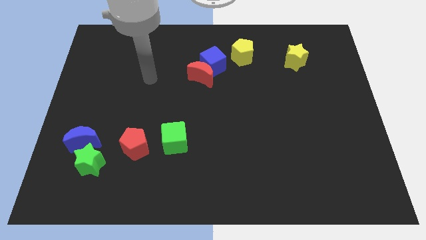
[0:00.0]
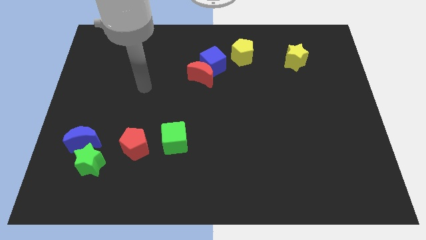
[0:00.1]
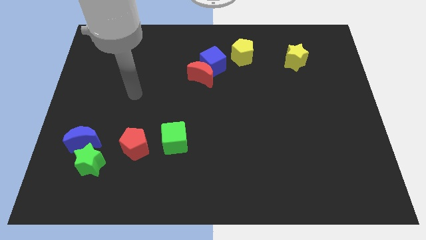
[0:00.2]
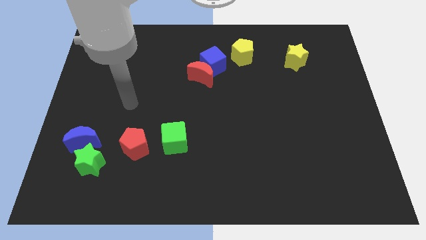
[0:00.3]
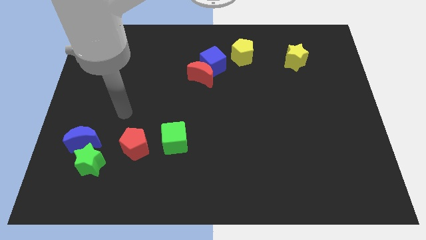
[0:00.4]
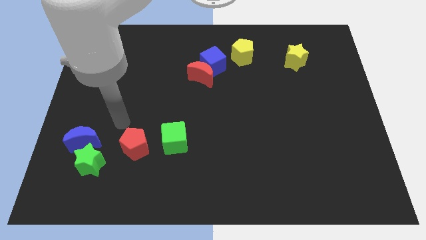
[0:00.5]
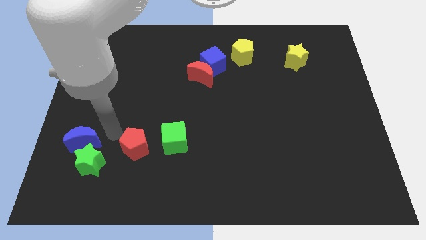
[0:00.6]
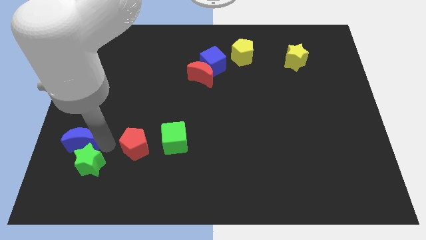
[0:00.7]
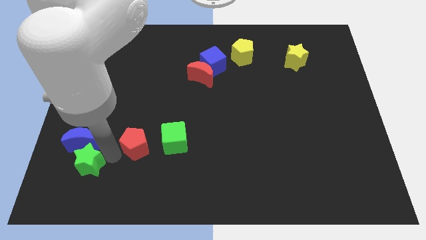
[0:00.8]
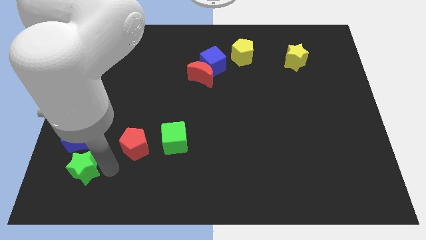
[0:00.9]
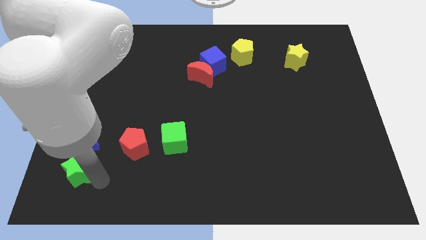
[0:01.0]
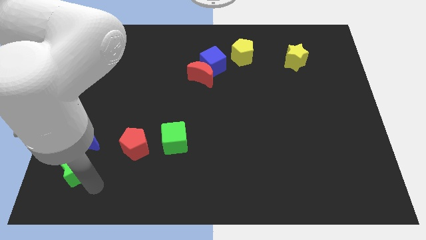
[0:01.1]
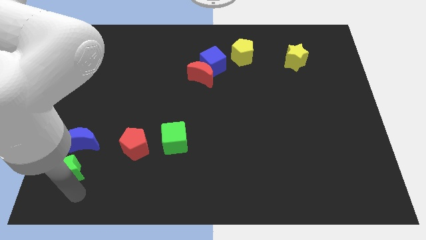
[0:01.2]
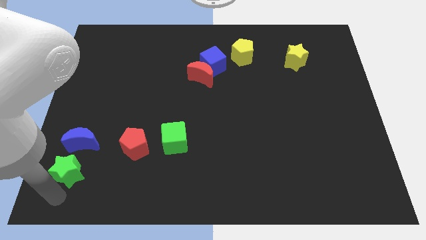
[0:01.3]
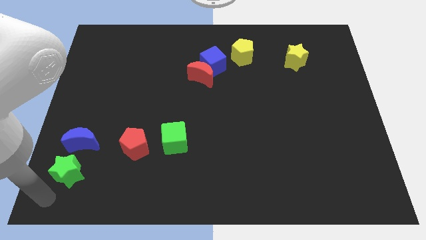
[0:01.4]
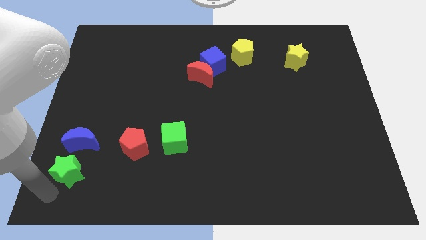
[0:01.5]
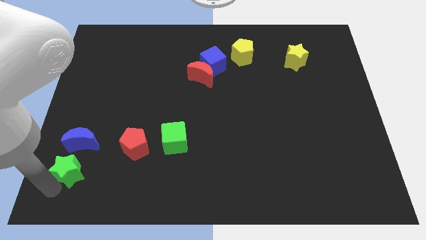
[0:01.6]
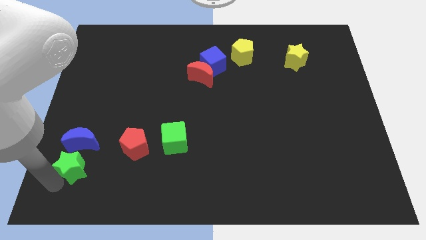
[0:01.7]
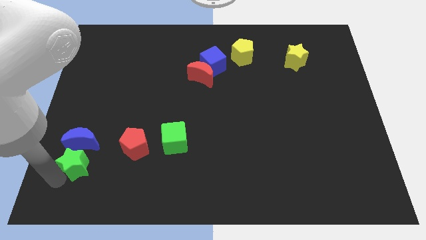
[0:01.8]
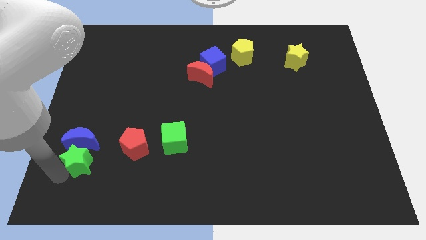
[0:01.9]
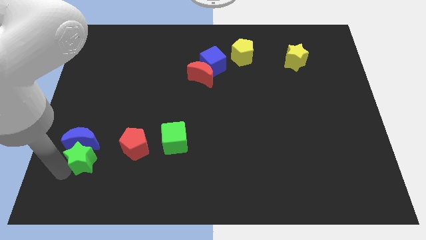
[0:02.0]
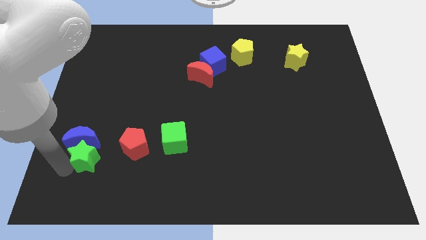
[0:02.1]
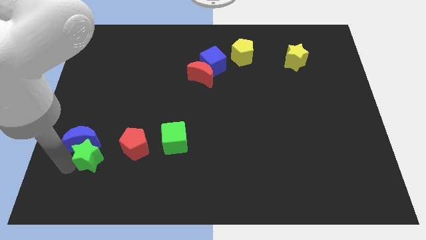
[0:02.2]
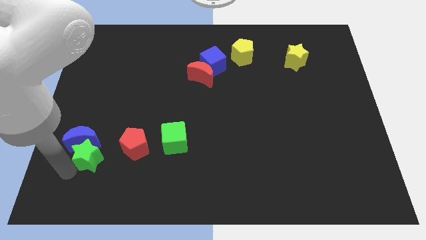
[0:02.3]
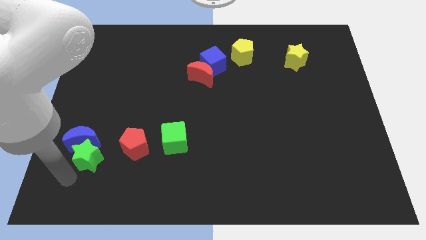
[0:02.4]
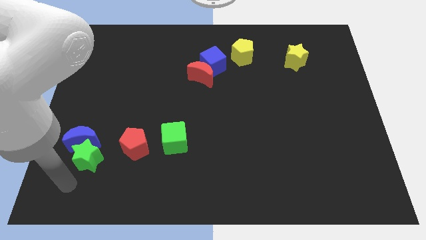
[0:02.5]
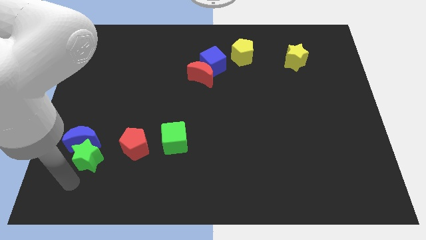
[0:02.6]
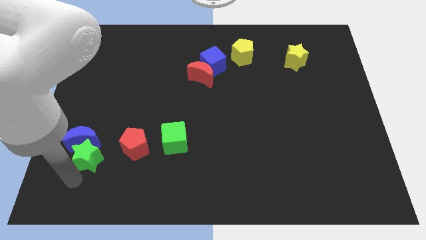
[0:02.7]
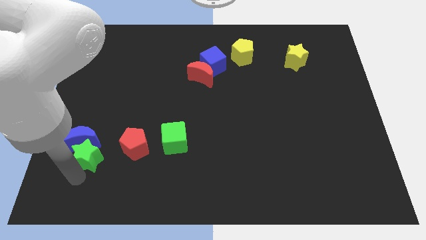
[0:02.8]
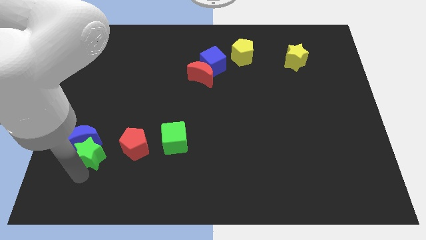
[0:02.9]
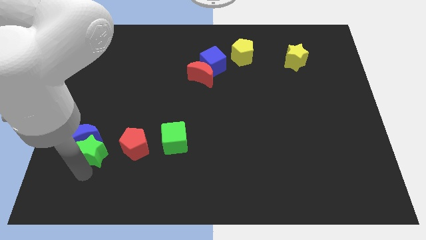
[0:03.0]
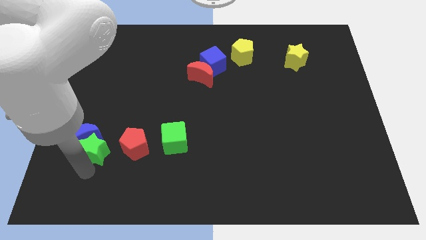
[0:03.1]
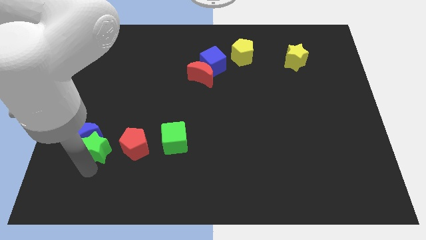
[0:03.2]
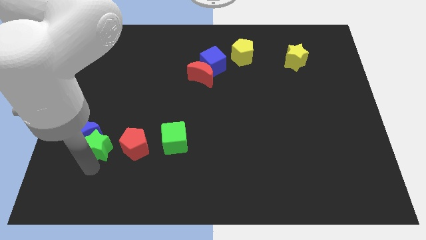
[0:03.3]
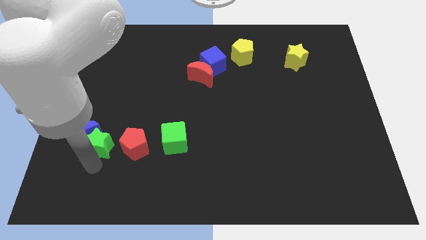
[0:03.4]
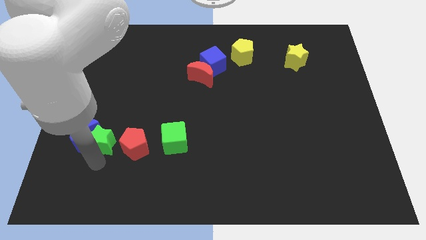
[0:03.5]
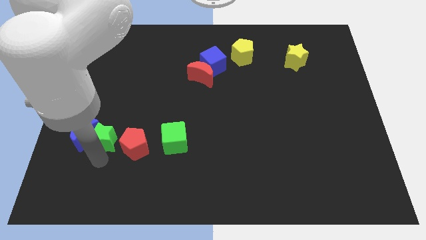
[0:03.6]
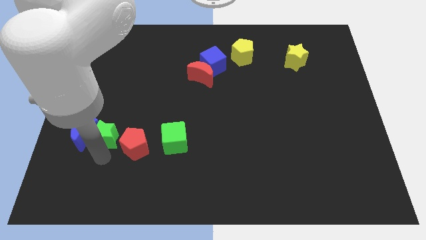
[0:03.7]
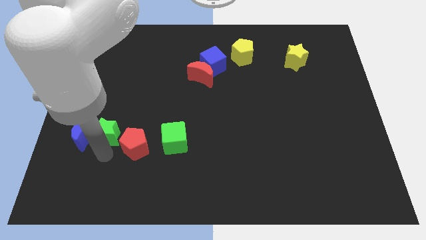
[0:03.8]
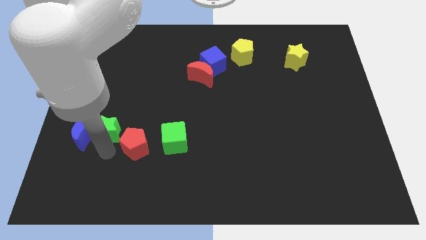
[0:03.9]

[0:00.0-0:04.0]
move the green star up somewhat

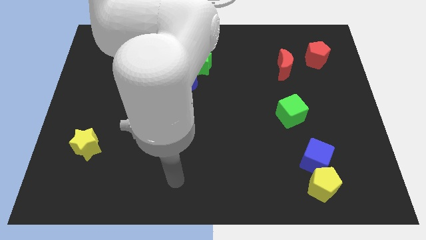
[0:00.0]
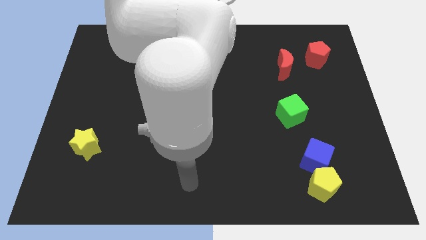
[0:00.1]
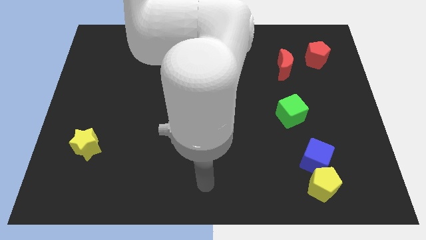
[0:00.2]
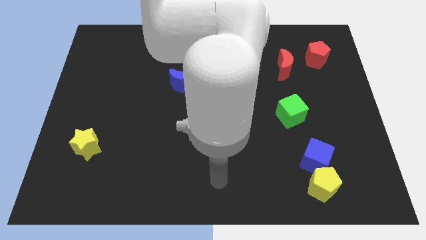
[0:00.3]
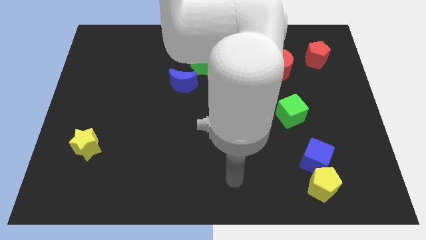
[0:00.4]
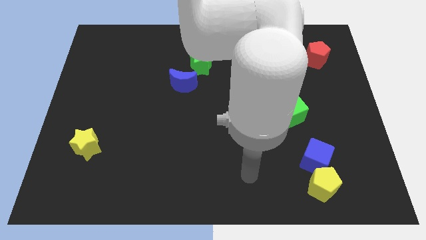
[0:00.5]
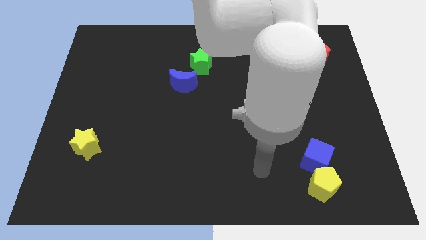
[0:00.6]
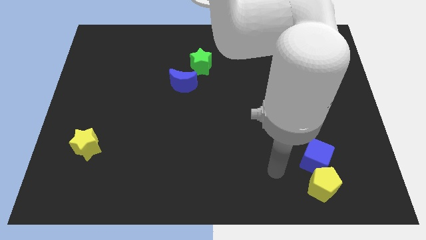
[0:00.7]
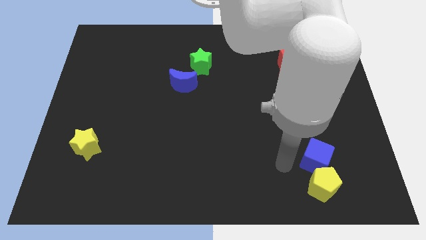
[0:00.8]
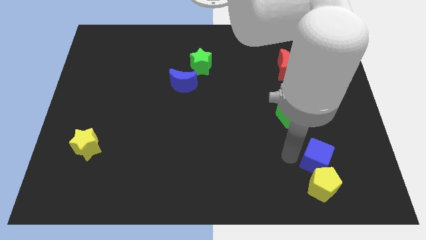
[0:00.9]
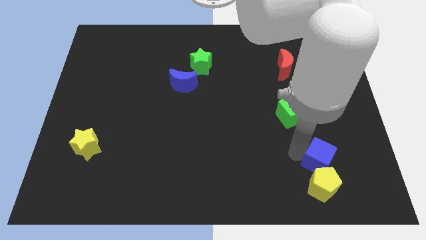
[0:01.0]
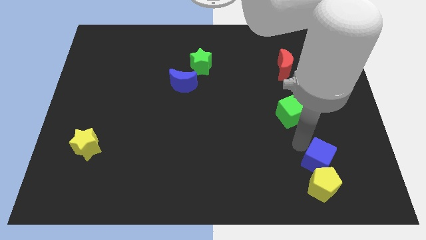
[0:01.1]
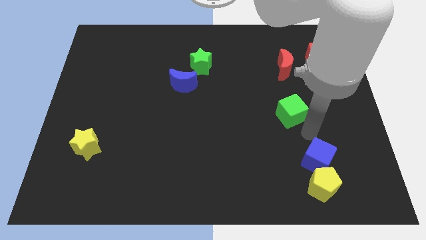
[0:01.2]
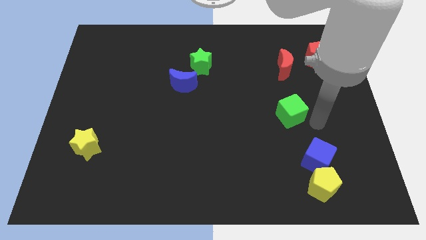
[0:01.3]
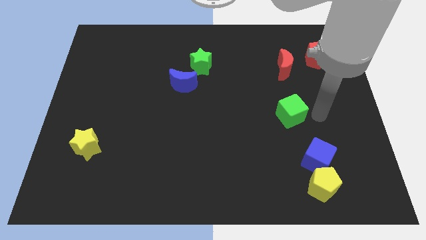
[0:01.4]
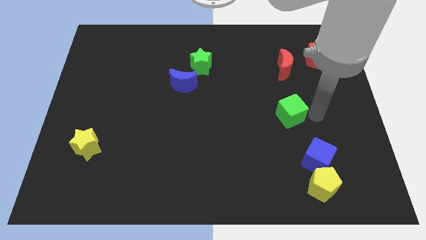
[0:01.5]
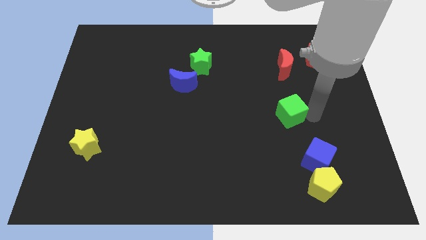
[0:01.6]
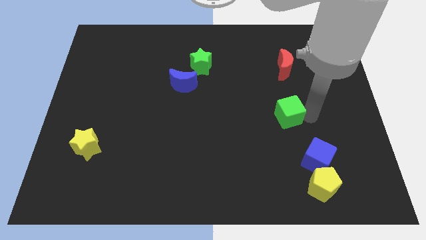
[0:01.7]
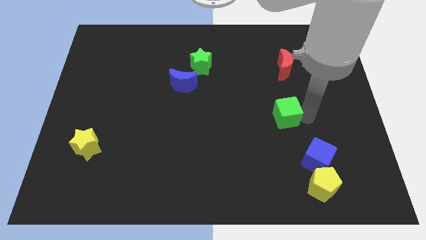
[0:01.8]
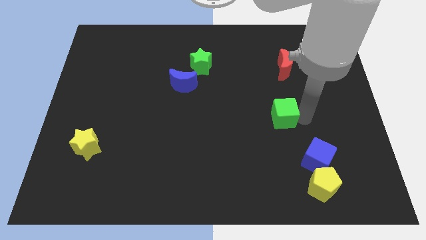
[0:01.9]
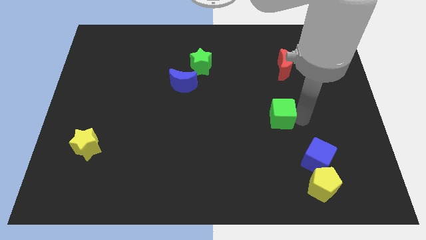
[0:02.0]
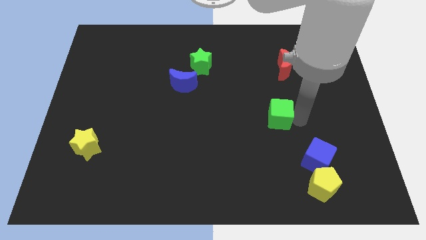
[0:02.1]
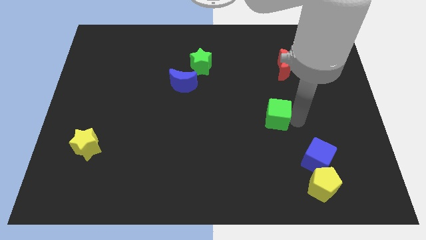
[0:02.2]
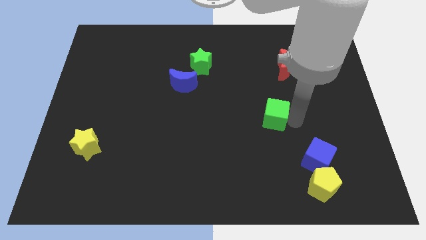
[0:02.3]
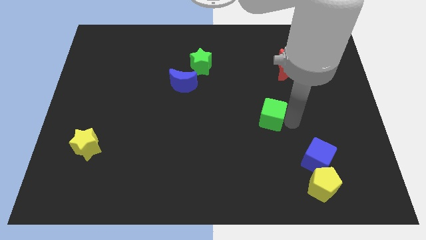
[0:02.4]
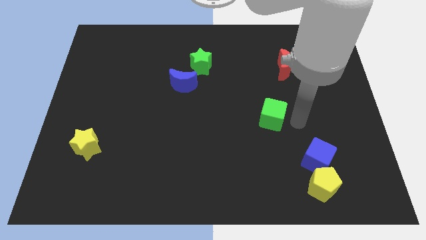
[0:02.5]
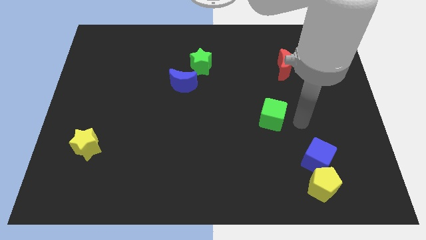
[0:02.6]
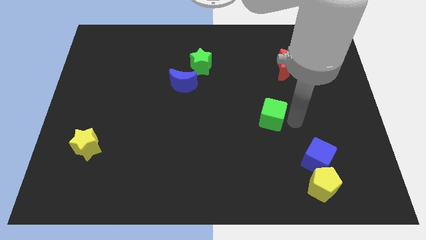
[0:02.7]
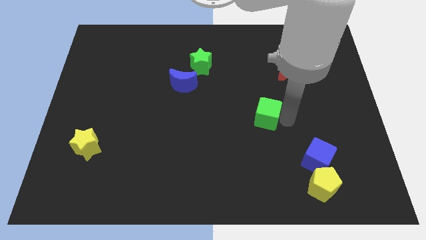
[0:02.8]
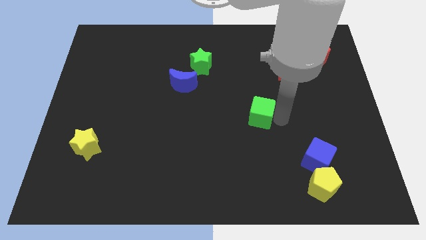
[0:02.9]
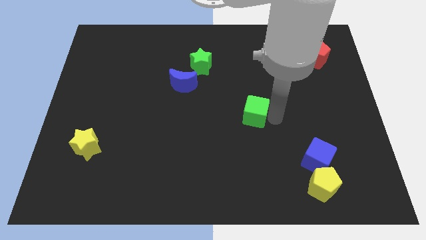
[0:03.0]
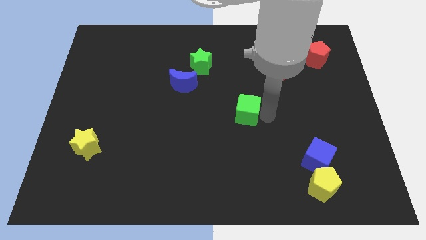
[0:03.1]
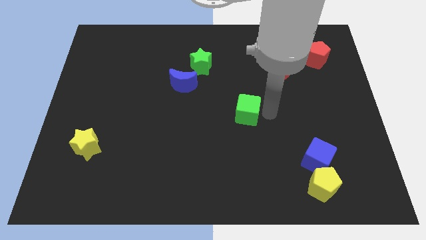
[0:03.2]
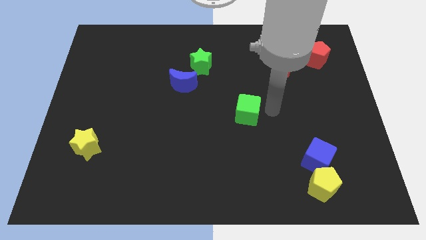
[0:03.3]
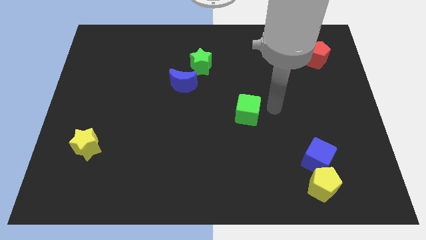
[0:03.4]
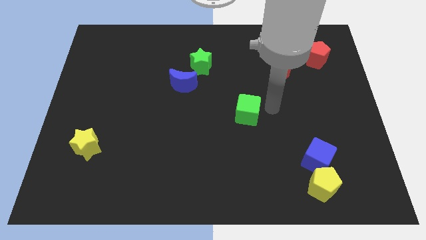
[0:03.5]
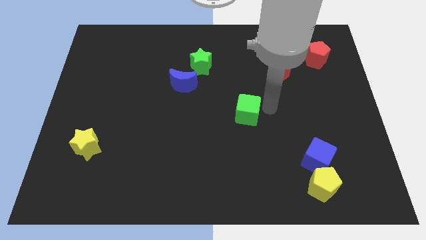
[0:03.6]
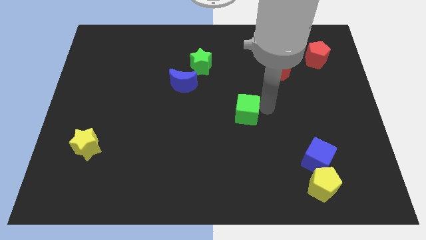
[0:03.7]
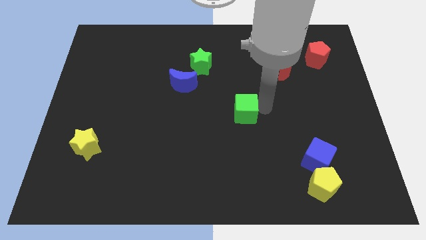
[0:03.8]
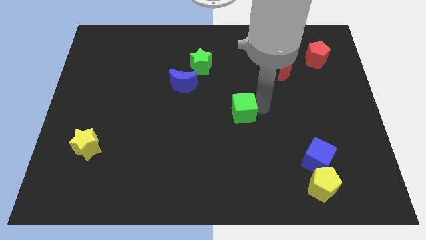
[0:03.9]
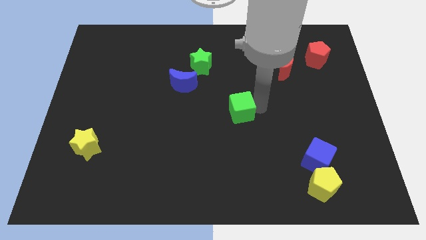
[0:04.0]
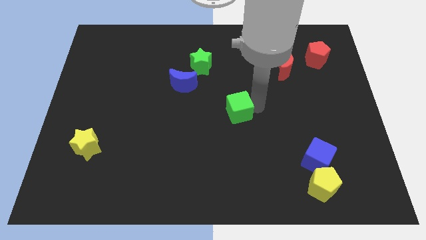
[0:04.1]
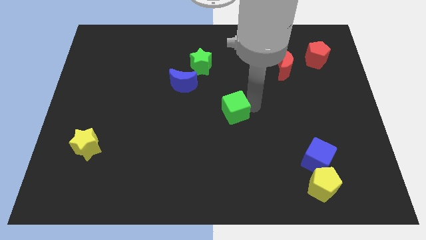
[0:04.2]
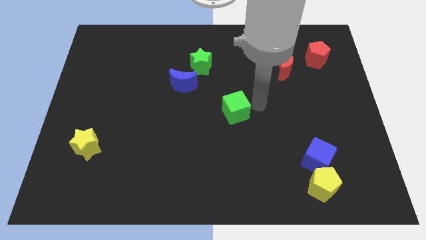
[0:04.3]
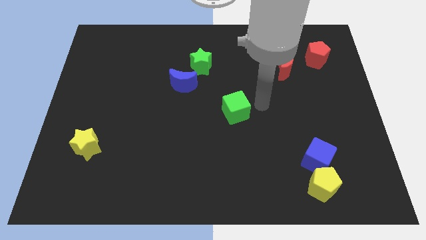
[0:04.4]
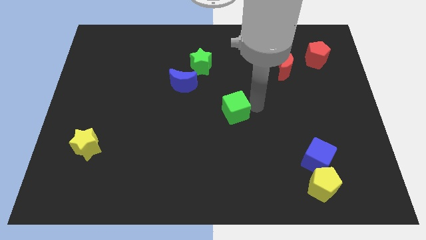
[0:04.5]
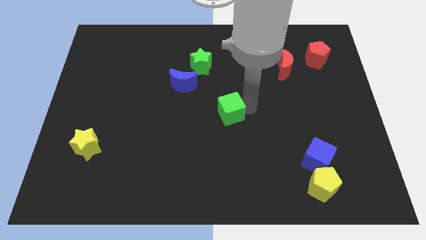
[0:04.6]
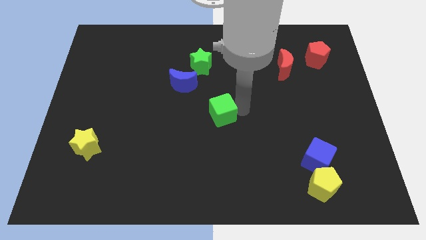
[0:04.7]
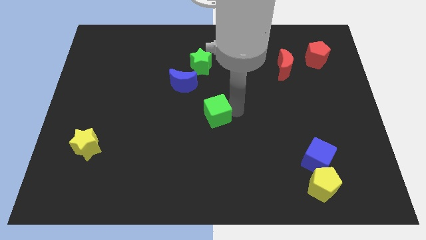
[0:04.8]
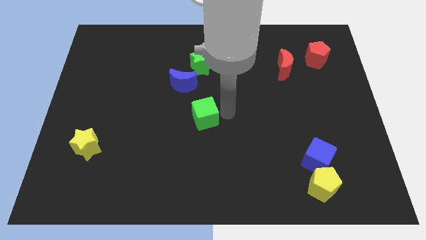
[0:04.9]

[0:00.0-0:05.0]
move the green cube to the left
